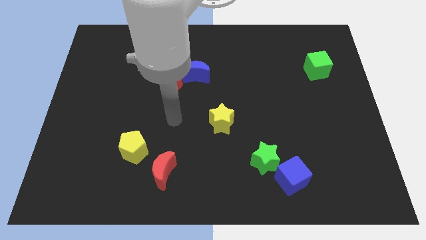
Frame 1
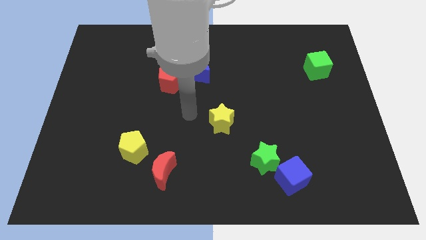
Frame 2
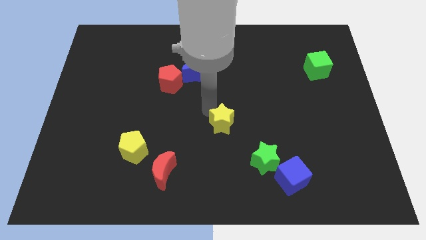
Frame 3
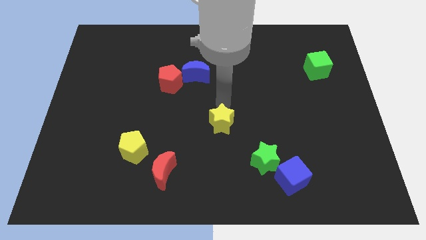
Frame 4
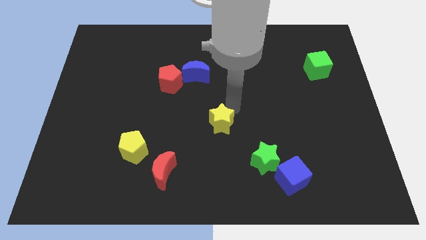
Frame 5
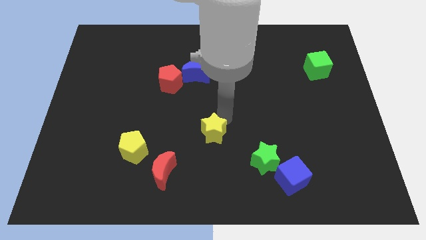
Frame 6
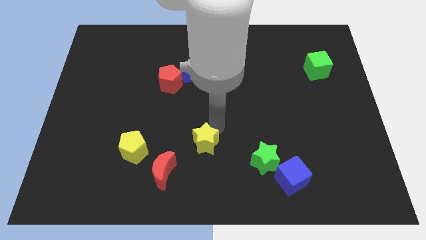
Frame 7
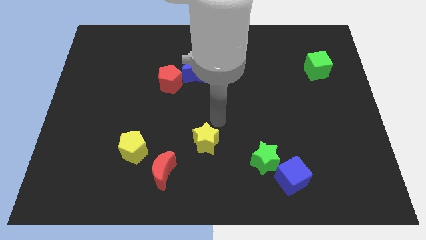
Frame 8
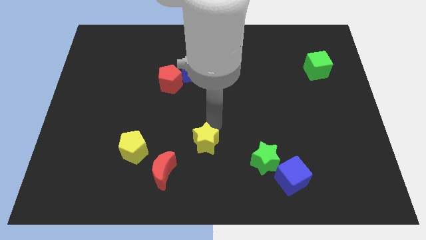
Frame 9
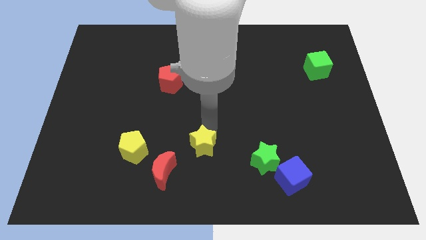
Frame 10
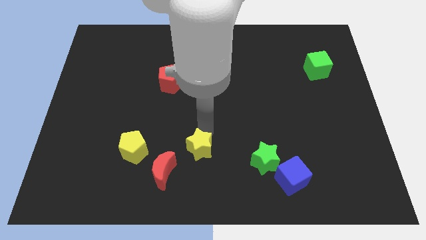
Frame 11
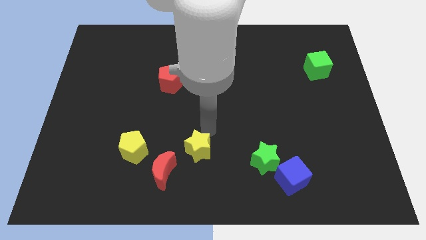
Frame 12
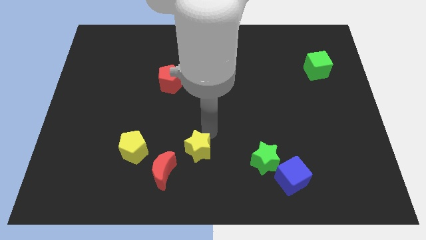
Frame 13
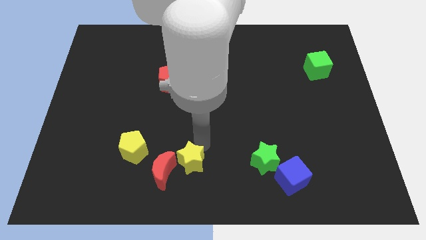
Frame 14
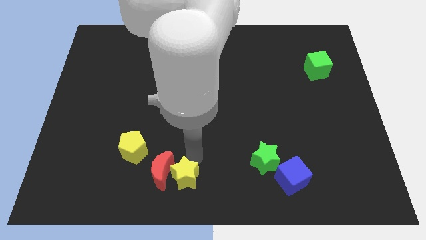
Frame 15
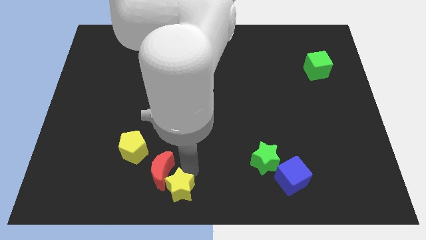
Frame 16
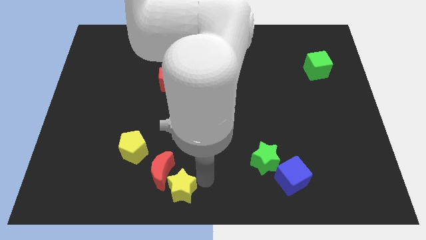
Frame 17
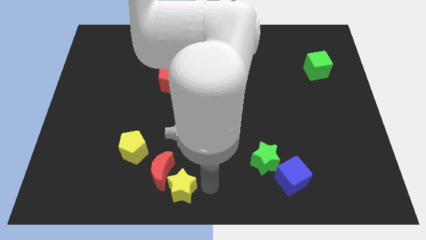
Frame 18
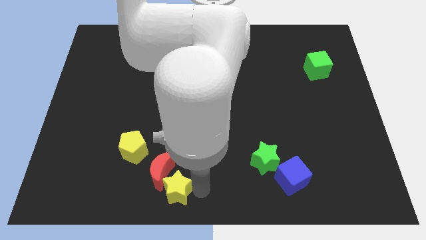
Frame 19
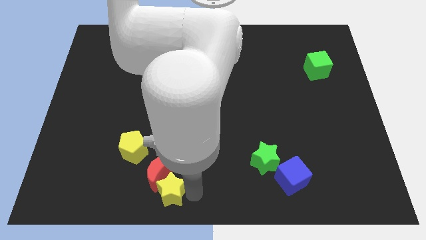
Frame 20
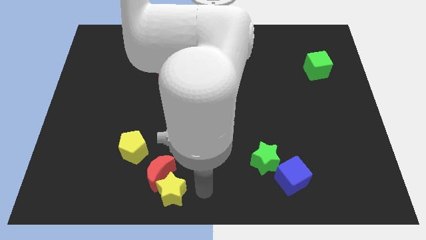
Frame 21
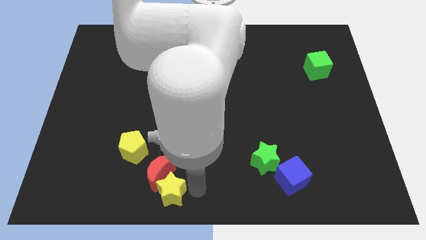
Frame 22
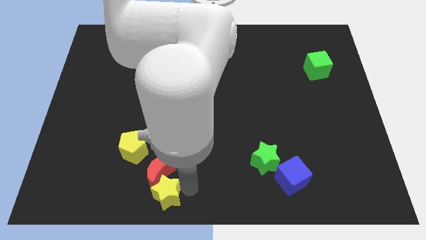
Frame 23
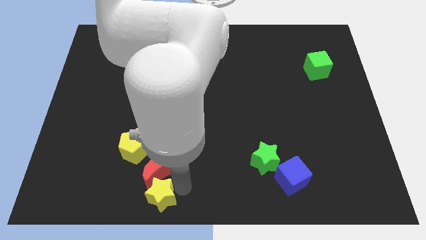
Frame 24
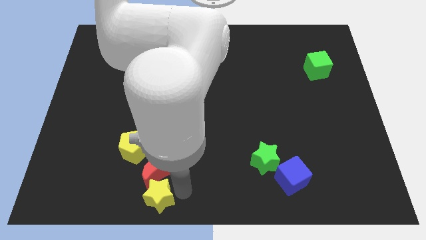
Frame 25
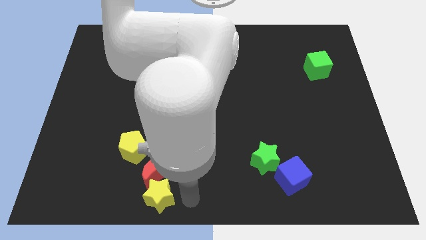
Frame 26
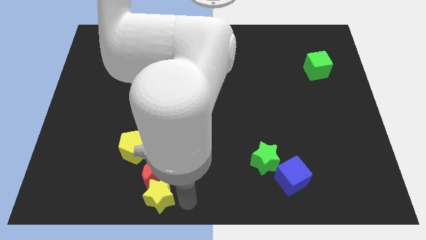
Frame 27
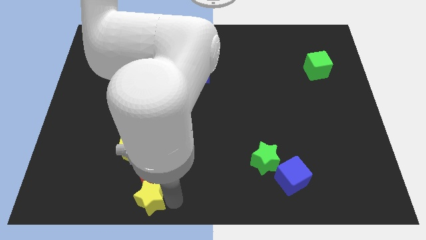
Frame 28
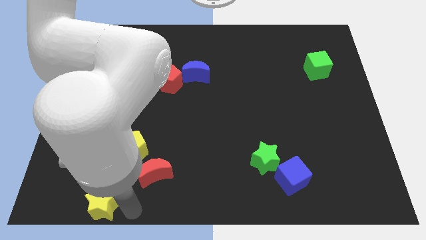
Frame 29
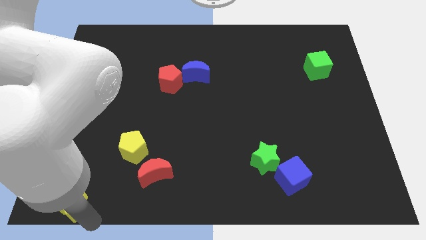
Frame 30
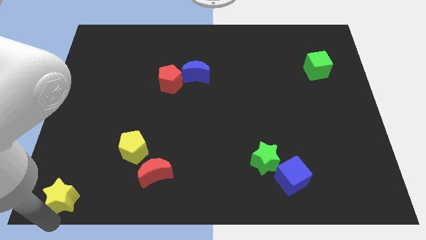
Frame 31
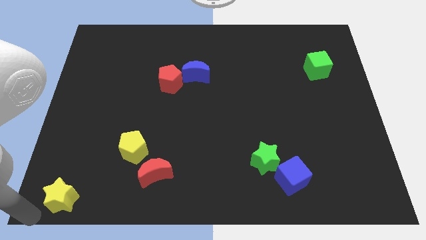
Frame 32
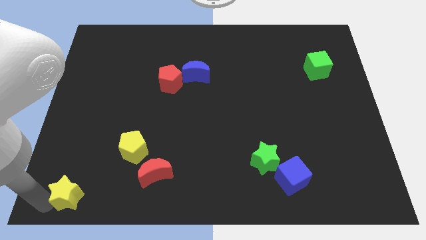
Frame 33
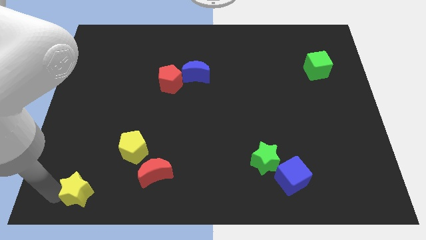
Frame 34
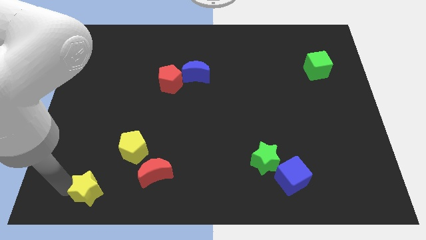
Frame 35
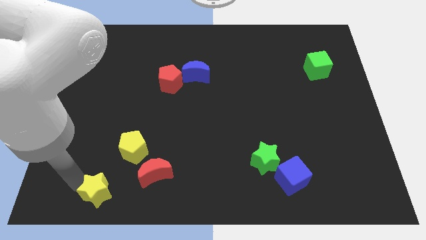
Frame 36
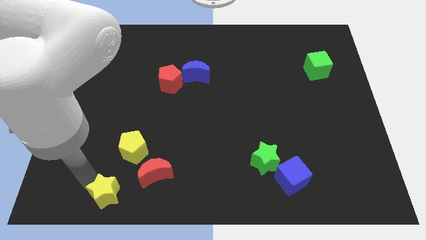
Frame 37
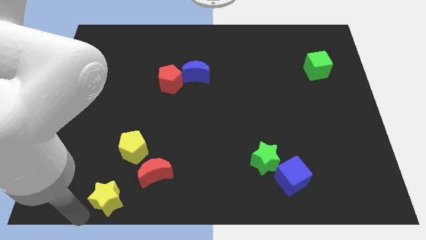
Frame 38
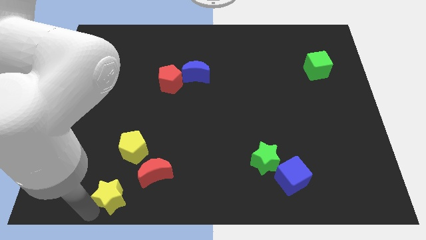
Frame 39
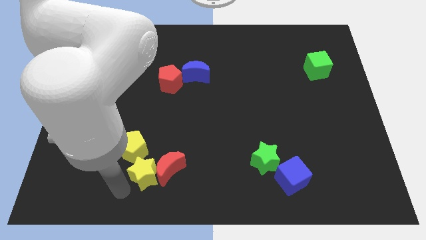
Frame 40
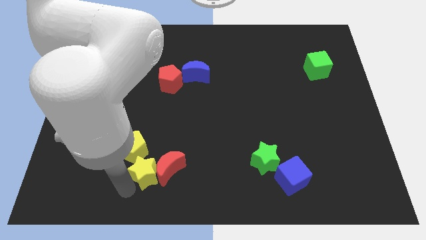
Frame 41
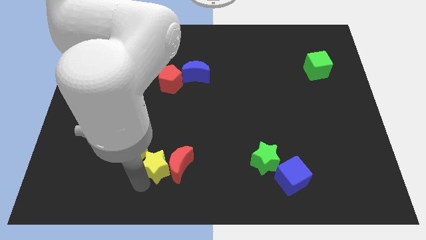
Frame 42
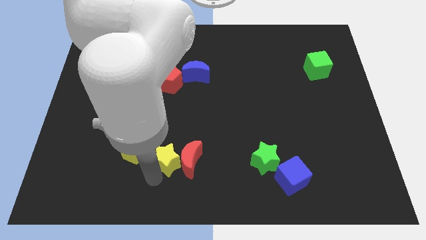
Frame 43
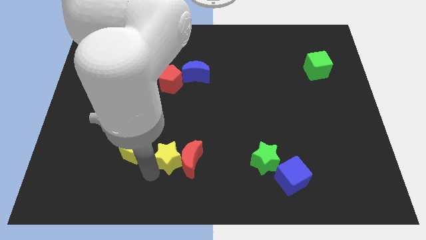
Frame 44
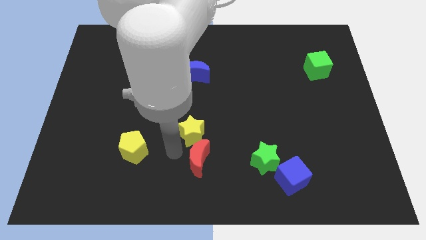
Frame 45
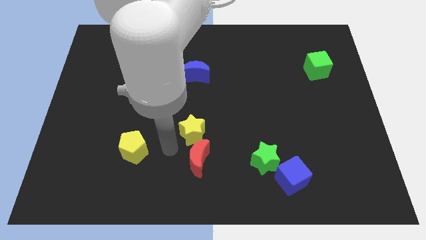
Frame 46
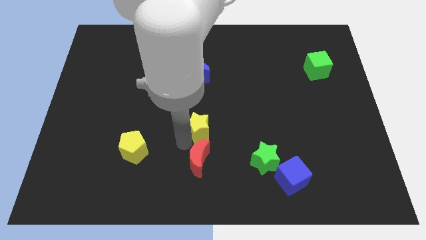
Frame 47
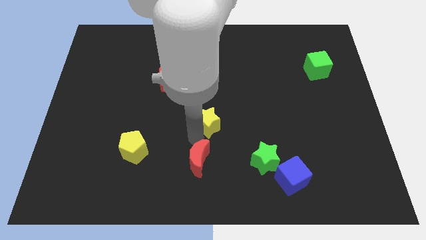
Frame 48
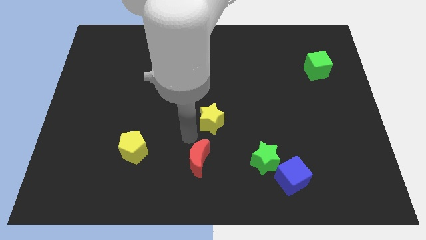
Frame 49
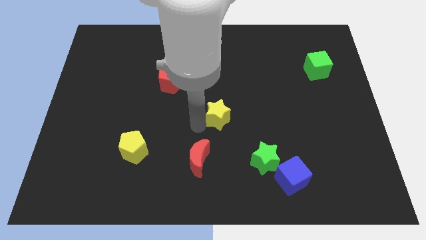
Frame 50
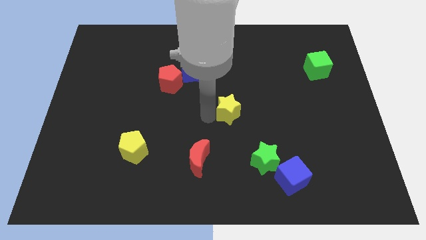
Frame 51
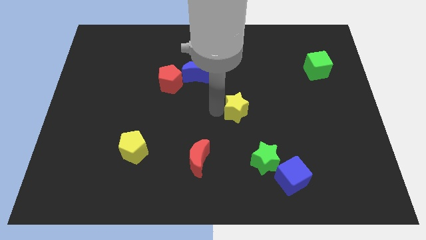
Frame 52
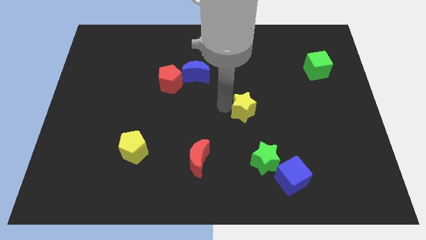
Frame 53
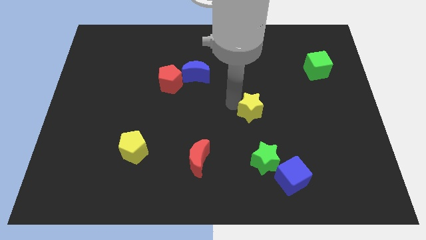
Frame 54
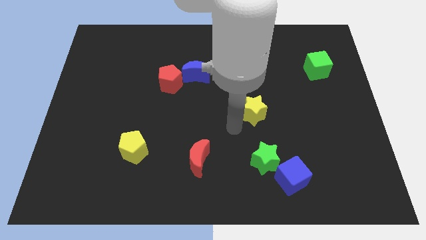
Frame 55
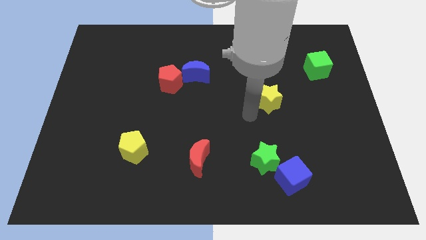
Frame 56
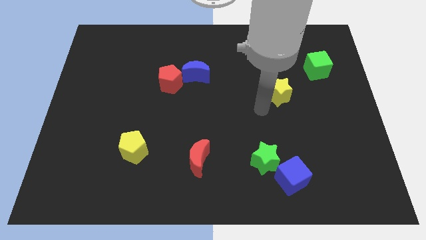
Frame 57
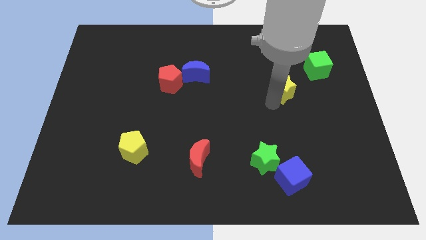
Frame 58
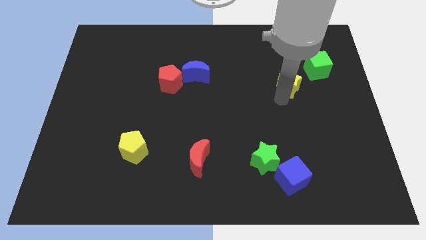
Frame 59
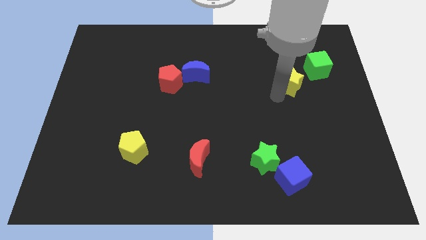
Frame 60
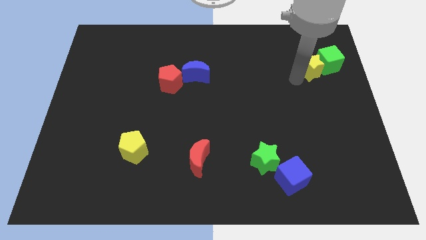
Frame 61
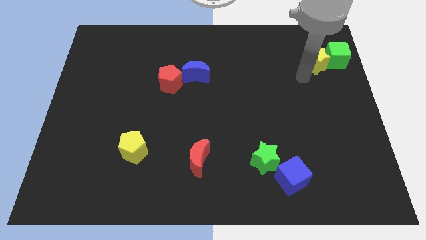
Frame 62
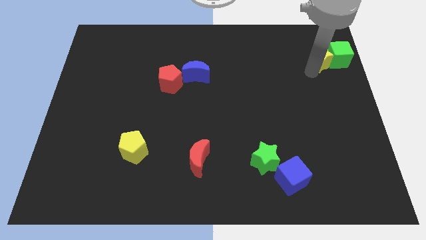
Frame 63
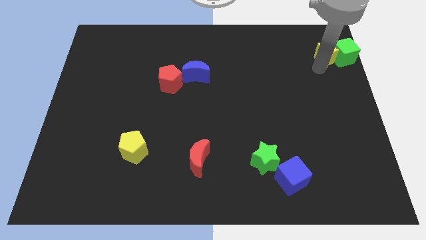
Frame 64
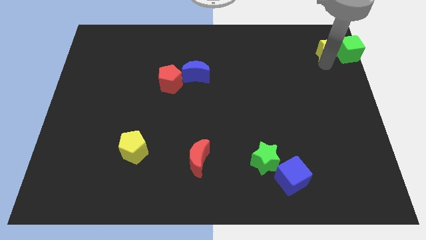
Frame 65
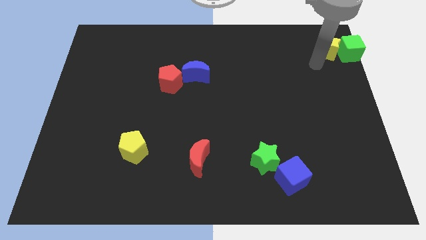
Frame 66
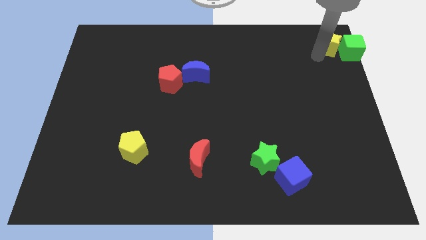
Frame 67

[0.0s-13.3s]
push the yellow star to the upper right corner

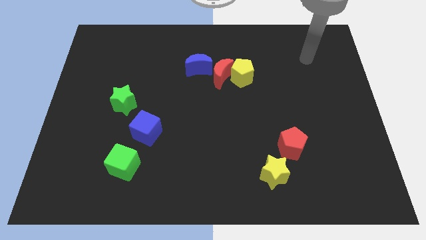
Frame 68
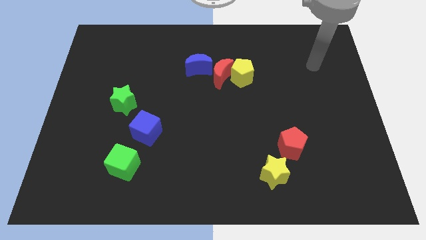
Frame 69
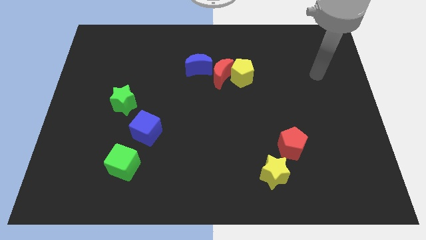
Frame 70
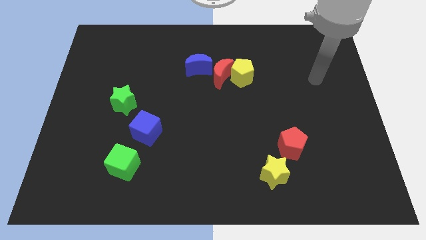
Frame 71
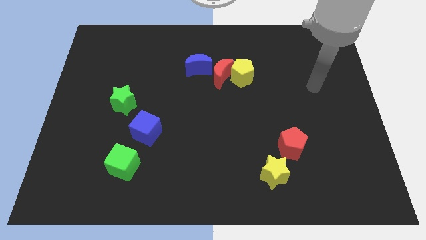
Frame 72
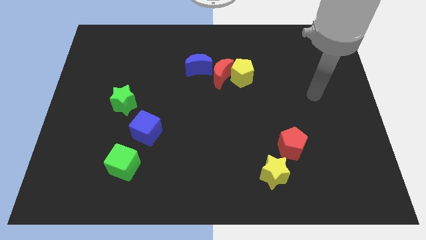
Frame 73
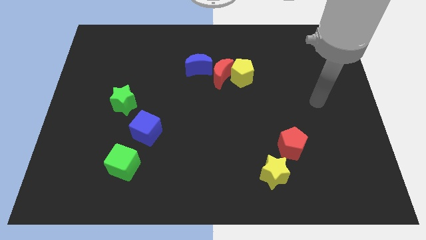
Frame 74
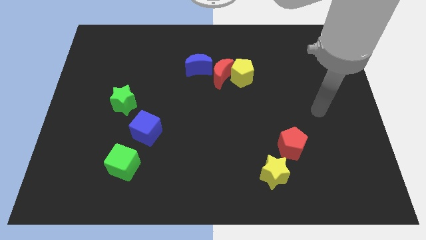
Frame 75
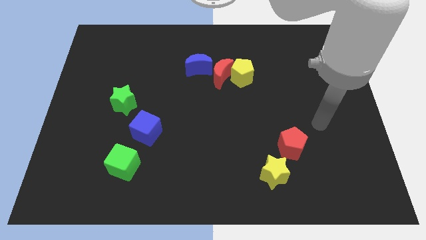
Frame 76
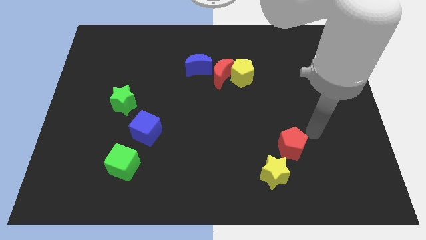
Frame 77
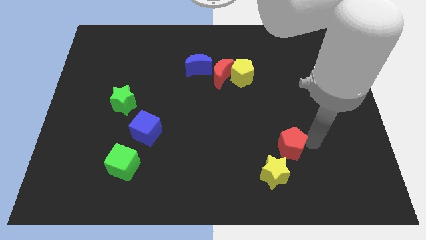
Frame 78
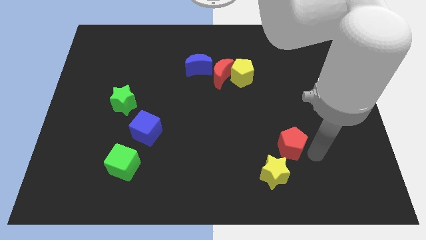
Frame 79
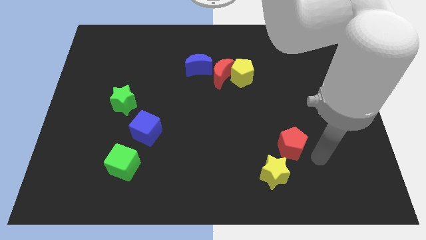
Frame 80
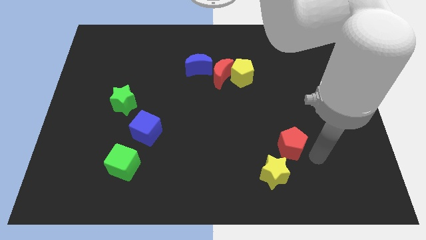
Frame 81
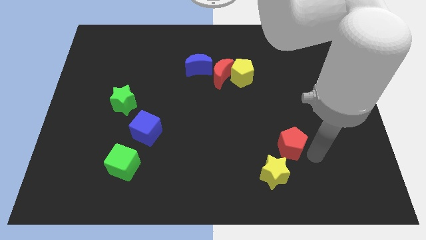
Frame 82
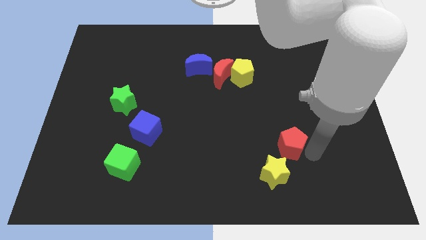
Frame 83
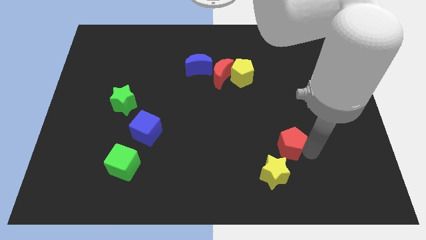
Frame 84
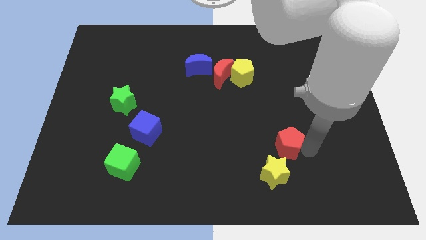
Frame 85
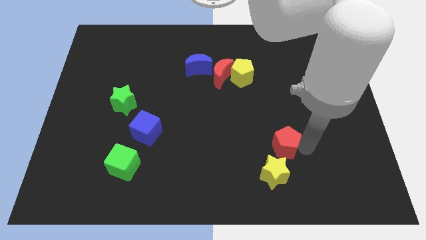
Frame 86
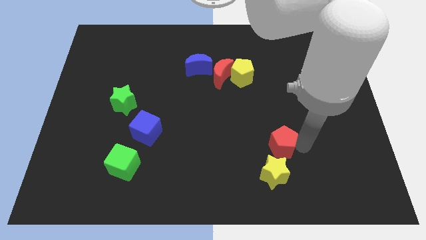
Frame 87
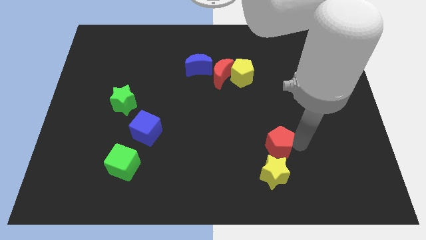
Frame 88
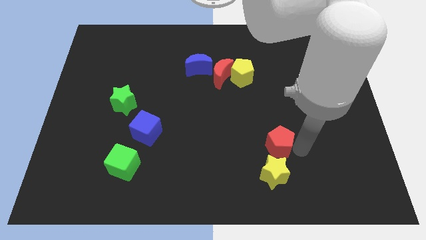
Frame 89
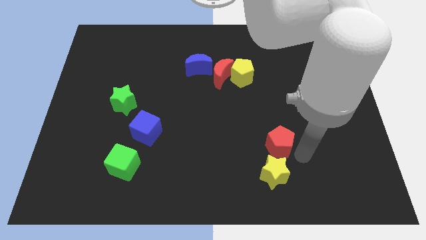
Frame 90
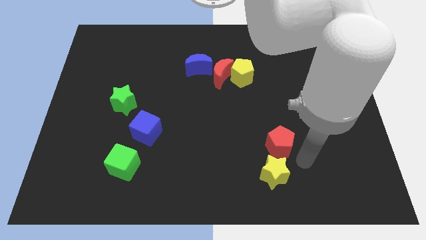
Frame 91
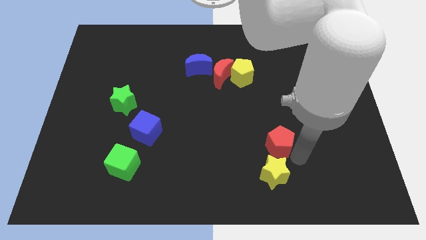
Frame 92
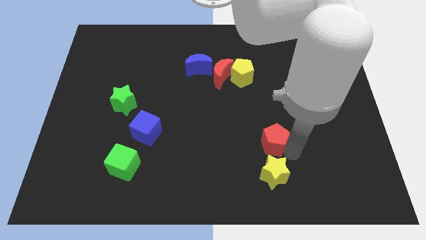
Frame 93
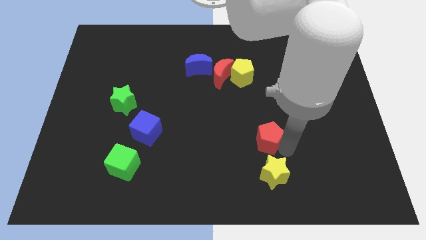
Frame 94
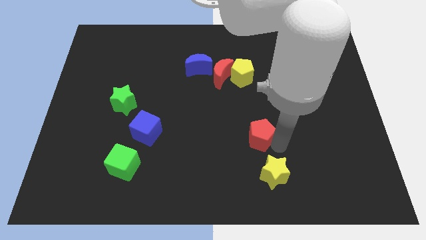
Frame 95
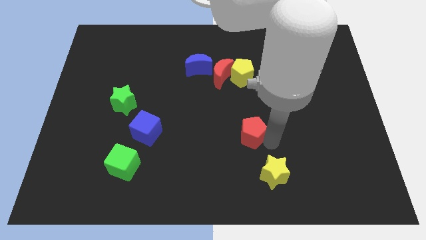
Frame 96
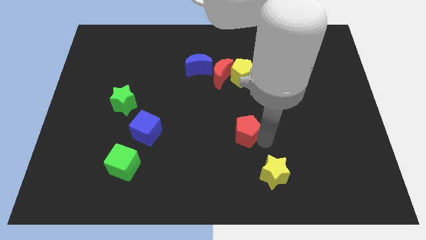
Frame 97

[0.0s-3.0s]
slide the red pentagon to the center
